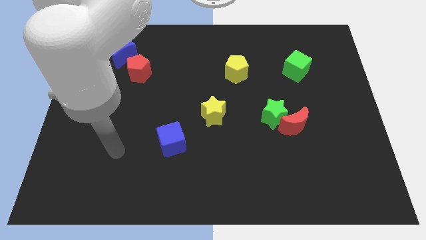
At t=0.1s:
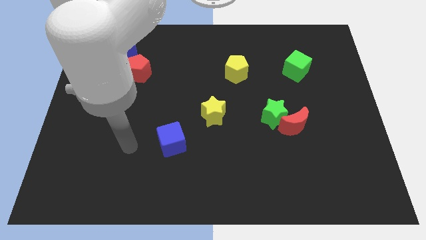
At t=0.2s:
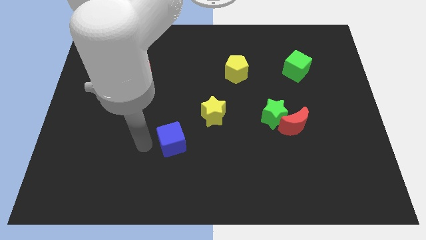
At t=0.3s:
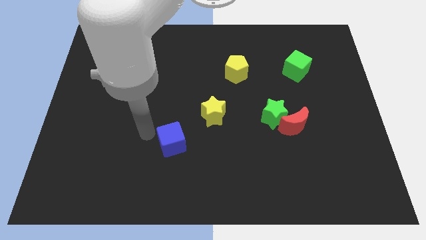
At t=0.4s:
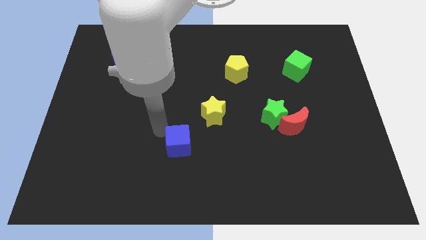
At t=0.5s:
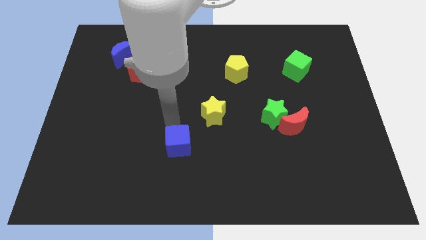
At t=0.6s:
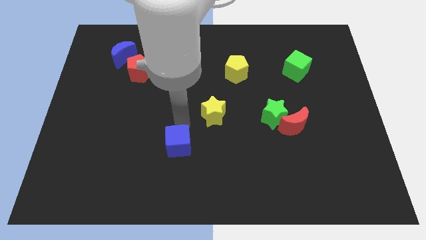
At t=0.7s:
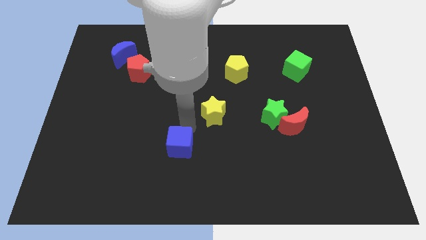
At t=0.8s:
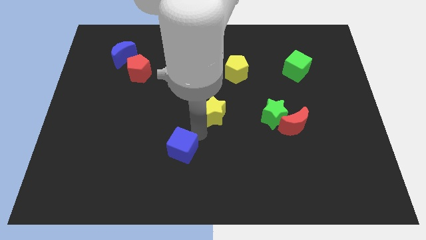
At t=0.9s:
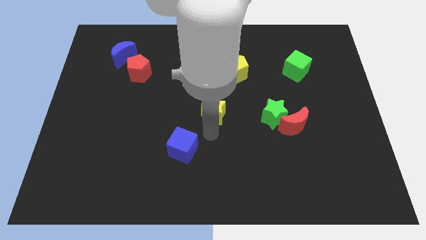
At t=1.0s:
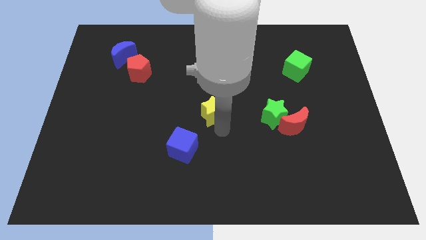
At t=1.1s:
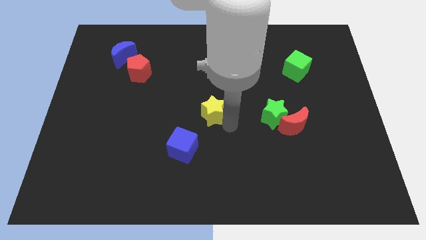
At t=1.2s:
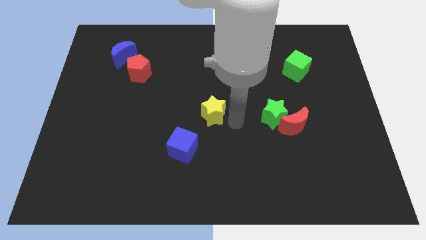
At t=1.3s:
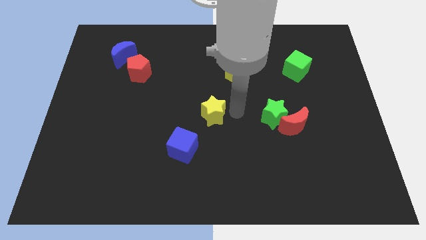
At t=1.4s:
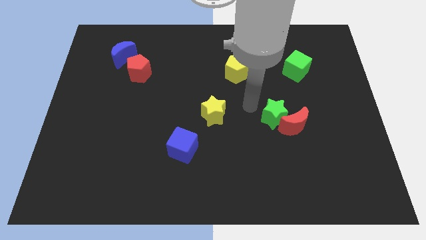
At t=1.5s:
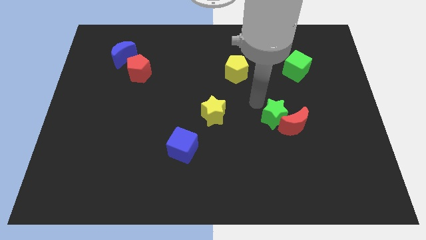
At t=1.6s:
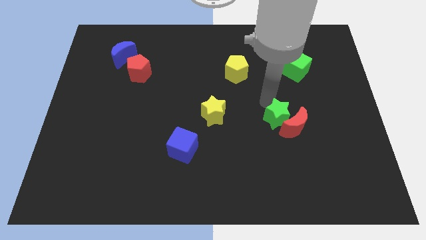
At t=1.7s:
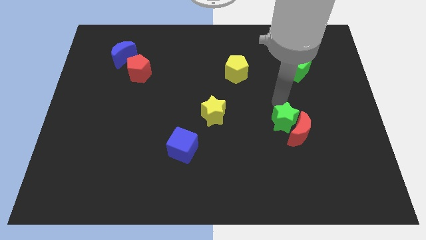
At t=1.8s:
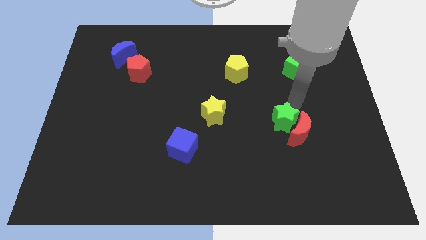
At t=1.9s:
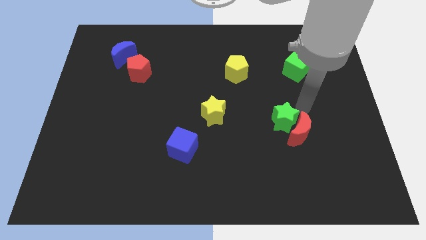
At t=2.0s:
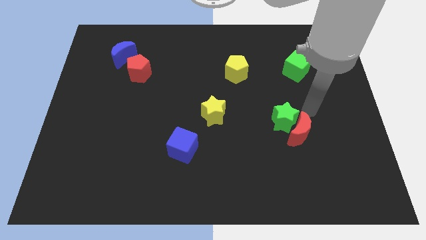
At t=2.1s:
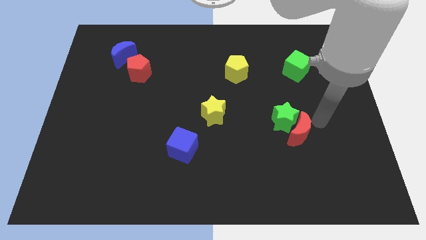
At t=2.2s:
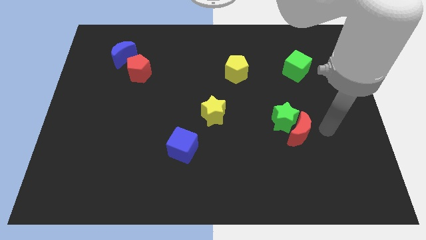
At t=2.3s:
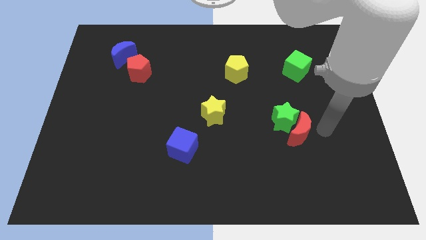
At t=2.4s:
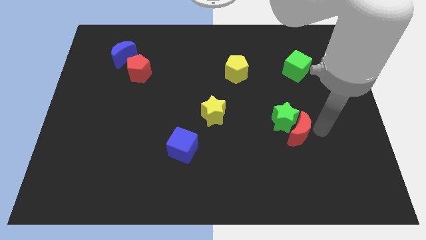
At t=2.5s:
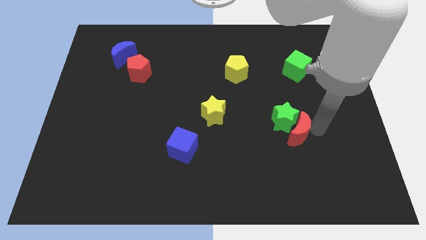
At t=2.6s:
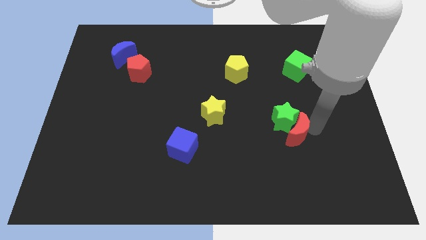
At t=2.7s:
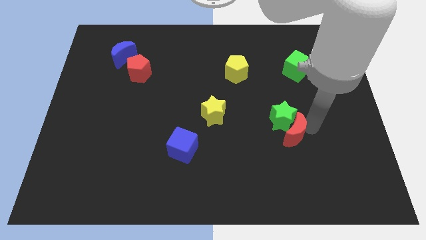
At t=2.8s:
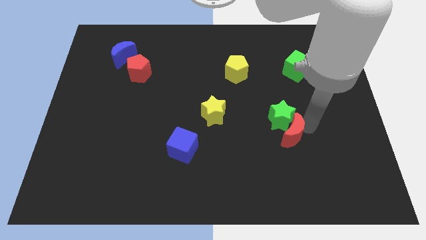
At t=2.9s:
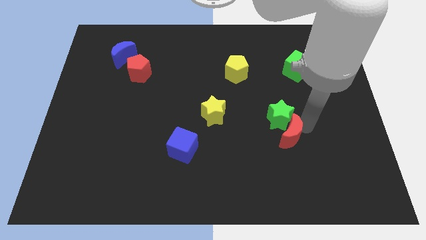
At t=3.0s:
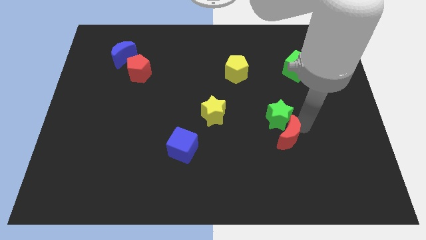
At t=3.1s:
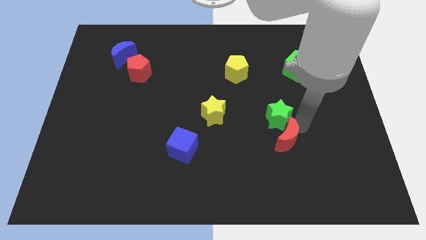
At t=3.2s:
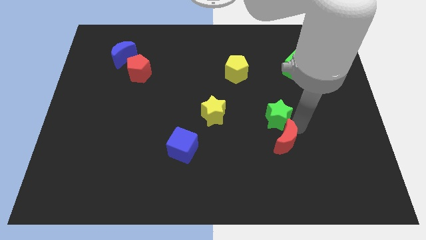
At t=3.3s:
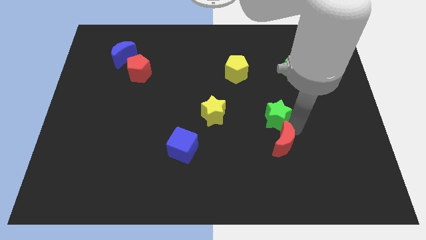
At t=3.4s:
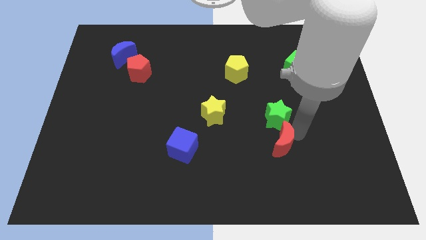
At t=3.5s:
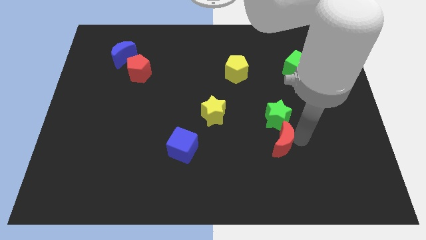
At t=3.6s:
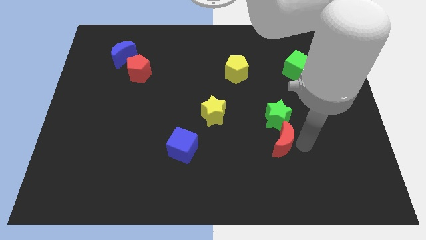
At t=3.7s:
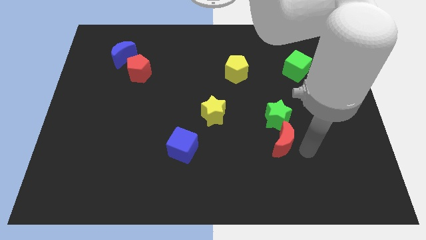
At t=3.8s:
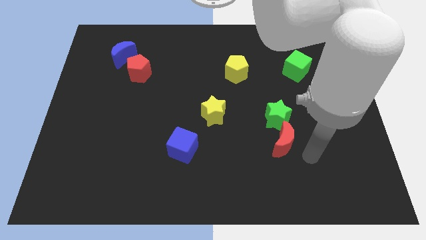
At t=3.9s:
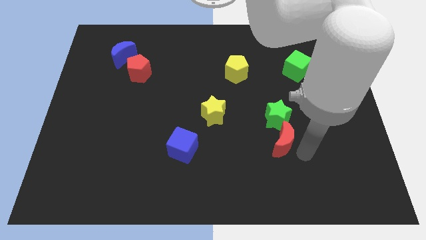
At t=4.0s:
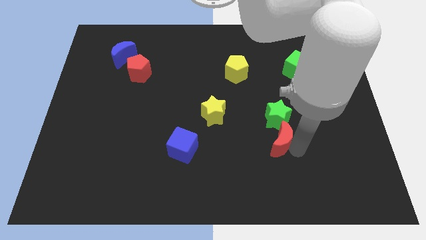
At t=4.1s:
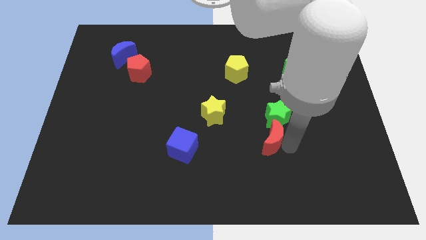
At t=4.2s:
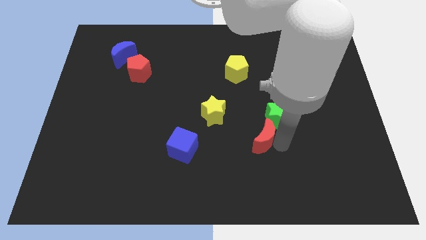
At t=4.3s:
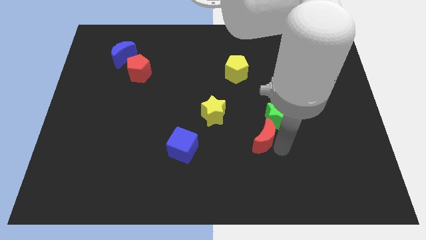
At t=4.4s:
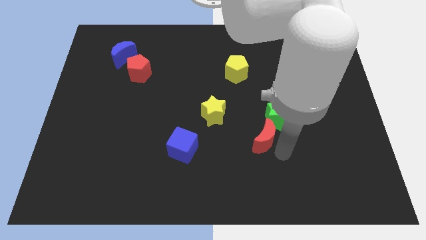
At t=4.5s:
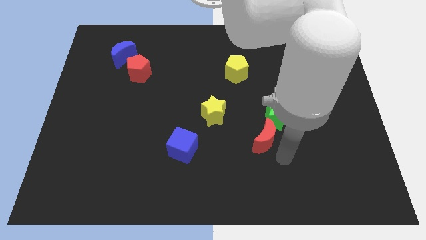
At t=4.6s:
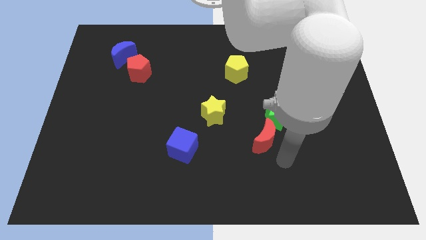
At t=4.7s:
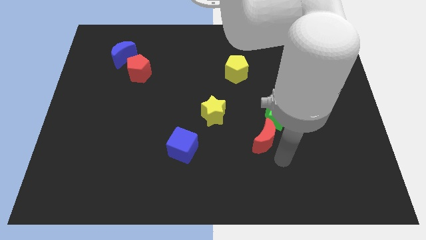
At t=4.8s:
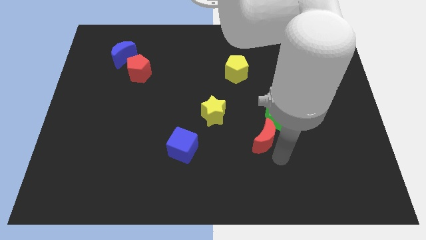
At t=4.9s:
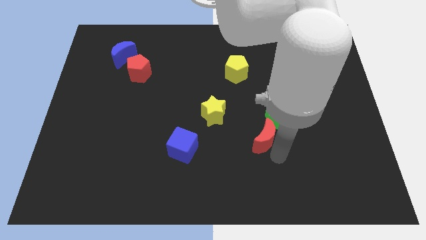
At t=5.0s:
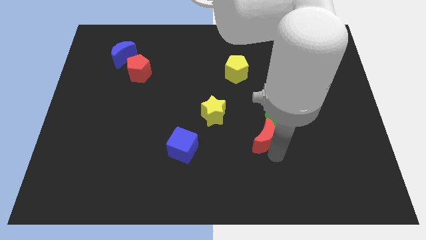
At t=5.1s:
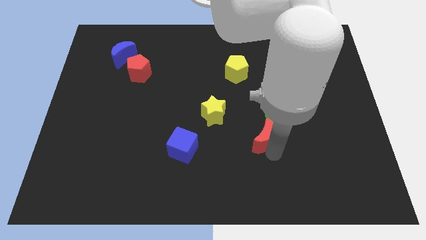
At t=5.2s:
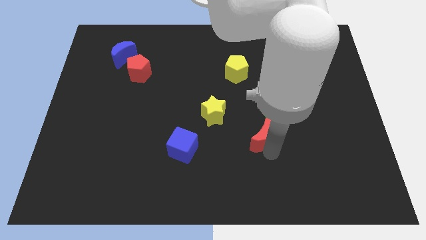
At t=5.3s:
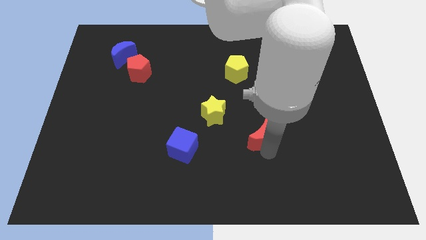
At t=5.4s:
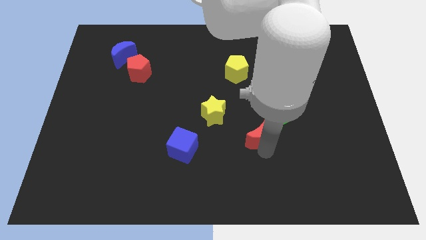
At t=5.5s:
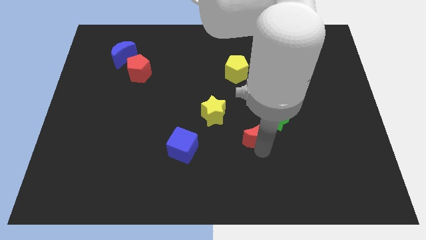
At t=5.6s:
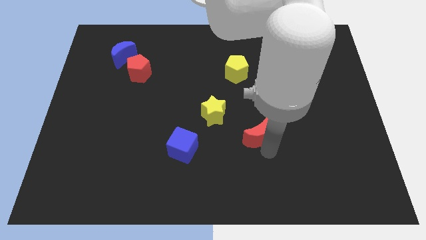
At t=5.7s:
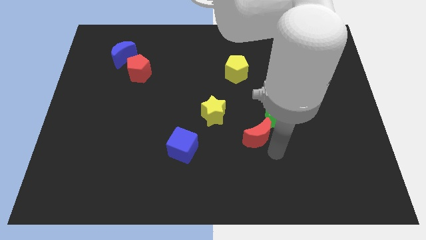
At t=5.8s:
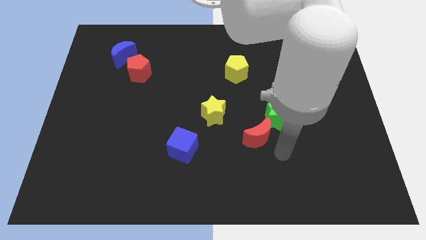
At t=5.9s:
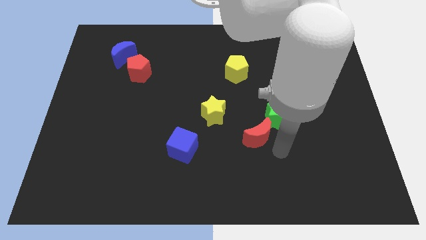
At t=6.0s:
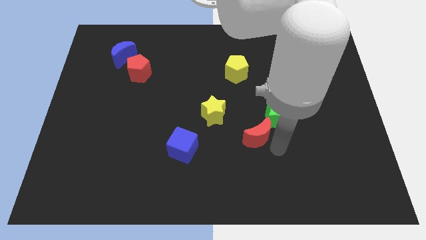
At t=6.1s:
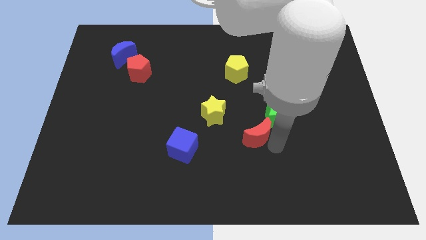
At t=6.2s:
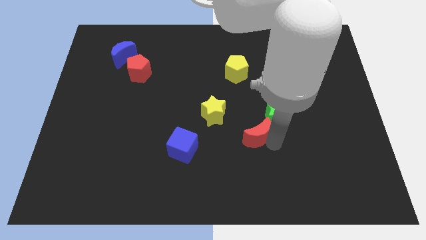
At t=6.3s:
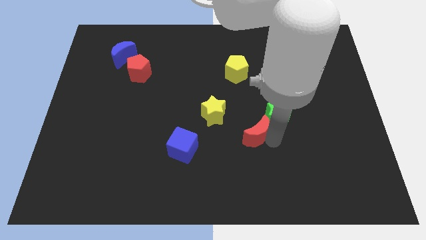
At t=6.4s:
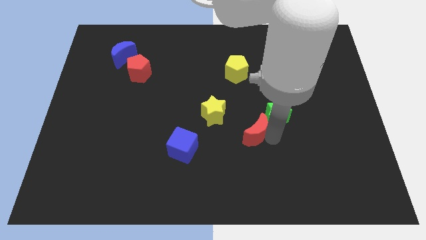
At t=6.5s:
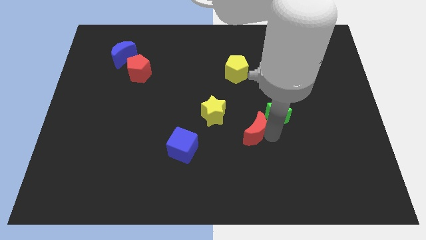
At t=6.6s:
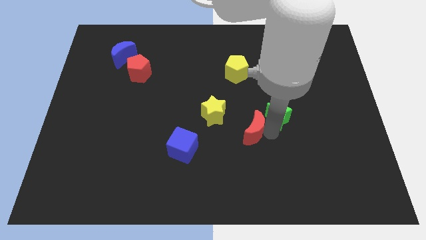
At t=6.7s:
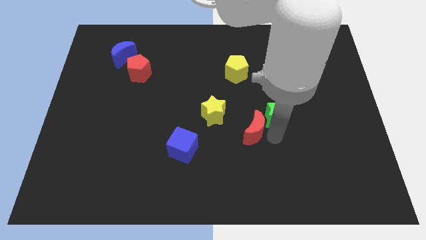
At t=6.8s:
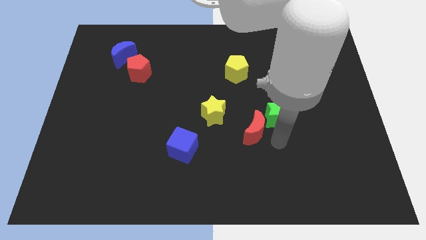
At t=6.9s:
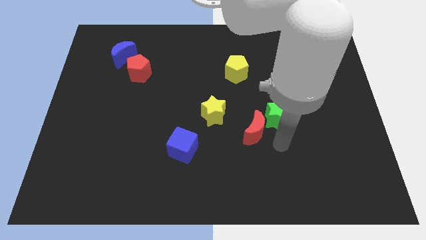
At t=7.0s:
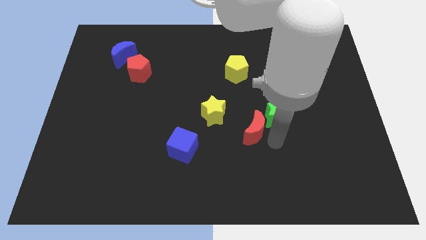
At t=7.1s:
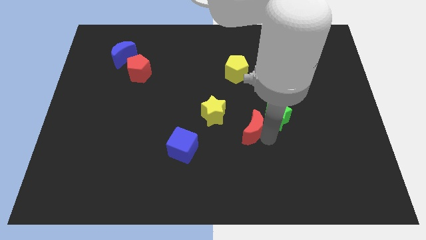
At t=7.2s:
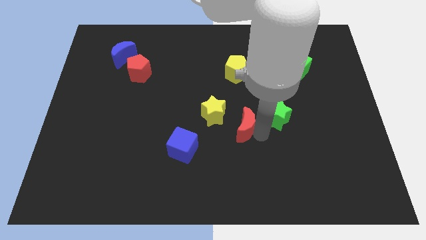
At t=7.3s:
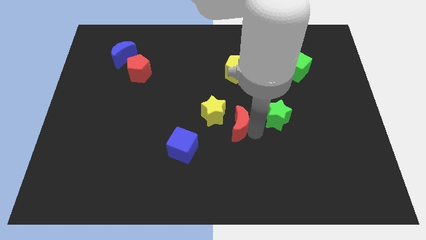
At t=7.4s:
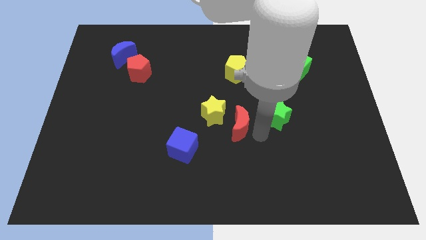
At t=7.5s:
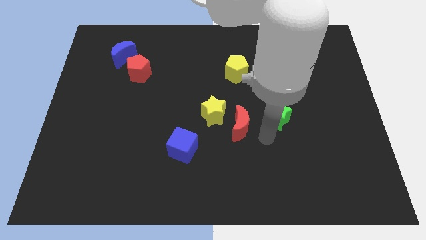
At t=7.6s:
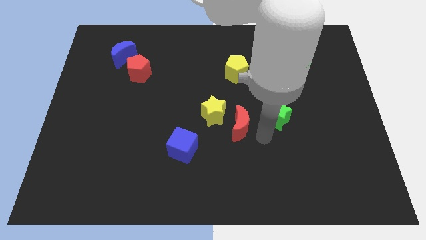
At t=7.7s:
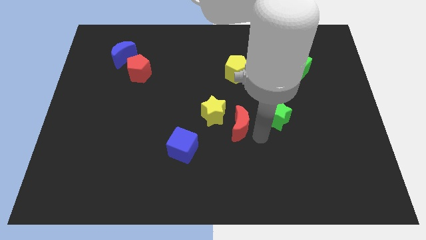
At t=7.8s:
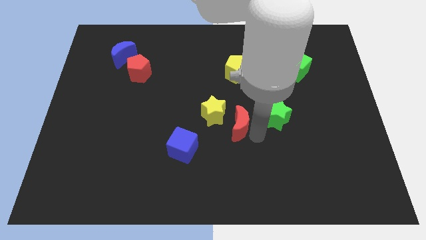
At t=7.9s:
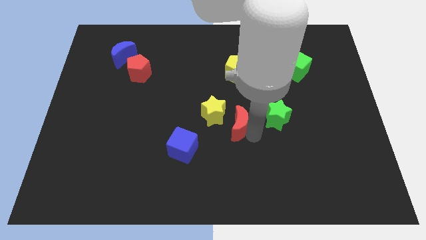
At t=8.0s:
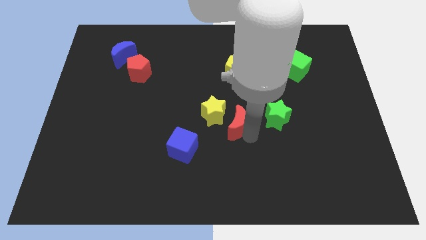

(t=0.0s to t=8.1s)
put the red moon to the yellow star
